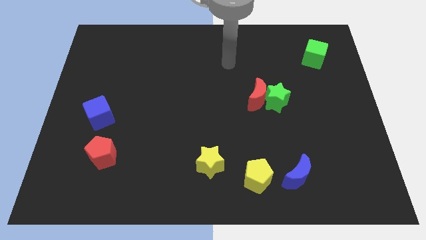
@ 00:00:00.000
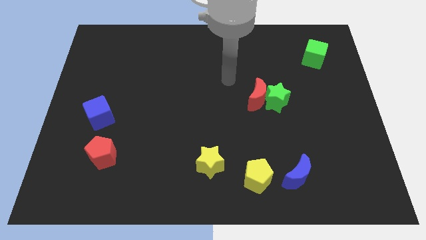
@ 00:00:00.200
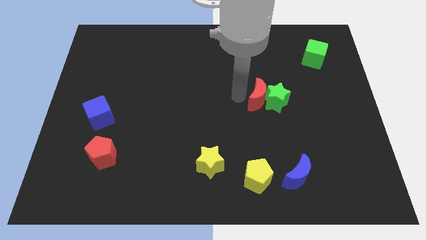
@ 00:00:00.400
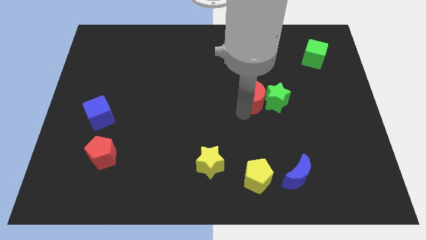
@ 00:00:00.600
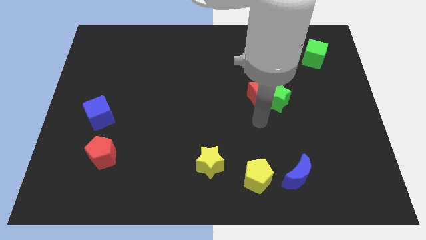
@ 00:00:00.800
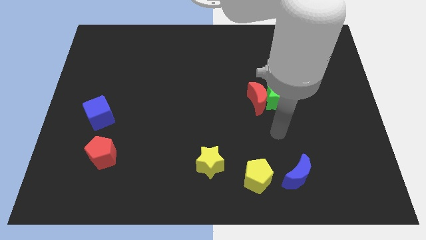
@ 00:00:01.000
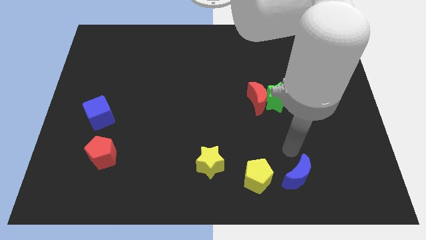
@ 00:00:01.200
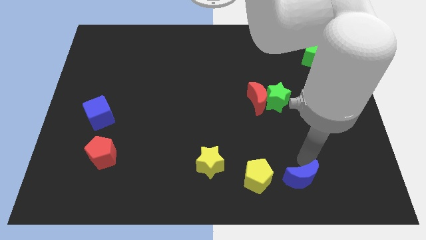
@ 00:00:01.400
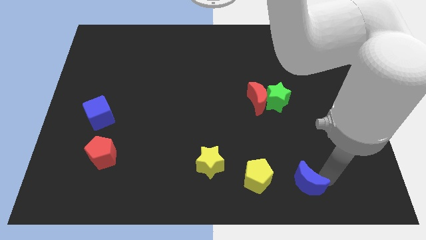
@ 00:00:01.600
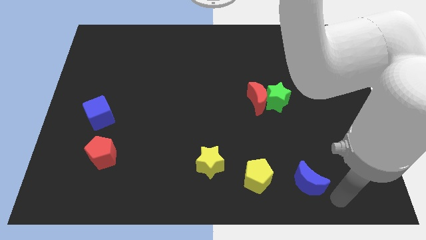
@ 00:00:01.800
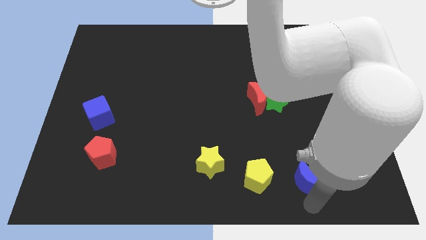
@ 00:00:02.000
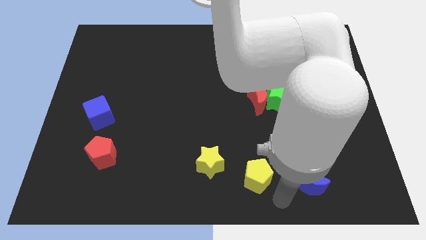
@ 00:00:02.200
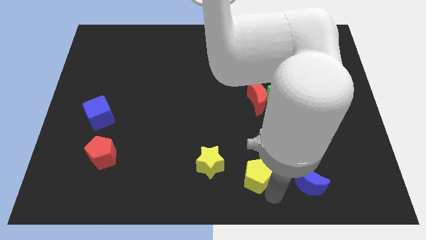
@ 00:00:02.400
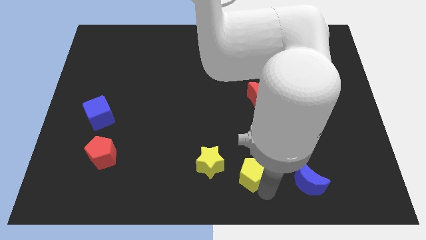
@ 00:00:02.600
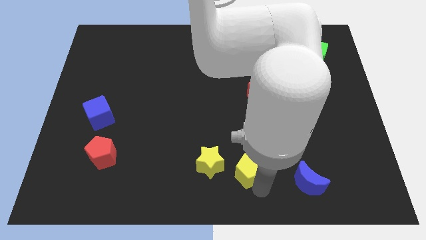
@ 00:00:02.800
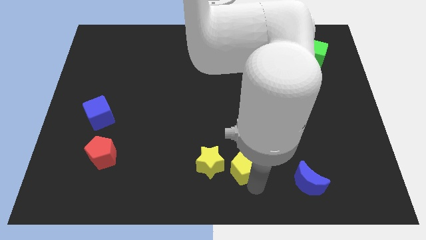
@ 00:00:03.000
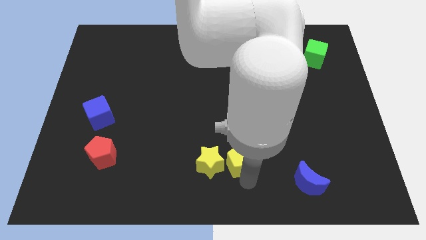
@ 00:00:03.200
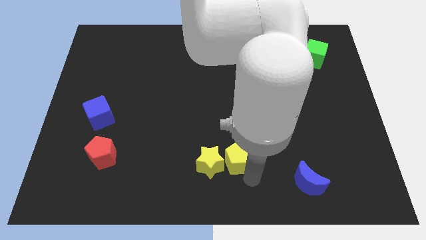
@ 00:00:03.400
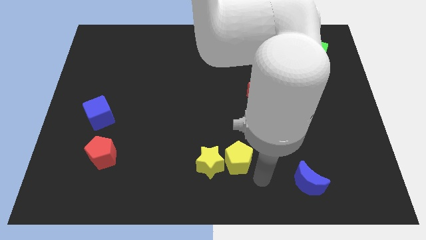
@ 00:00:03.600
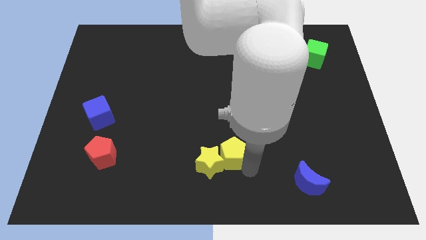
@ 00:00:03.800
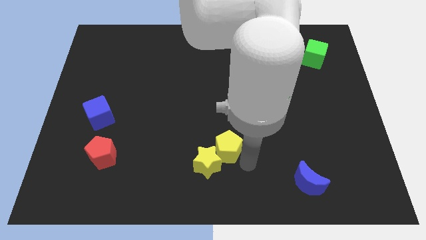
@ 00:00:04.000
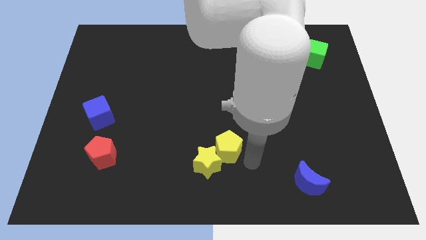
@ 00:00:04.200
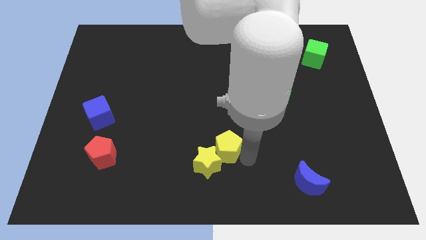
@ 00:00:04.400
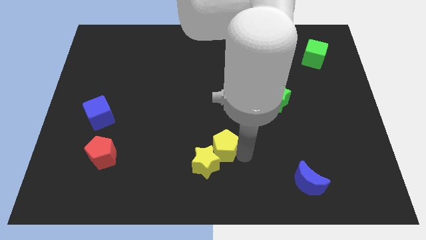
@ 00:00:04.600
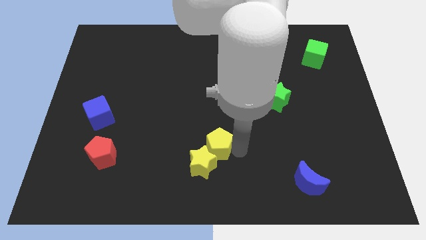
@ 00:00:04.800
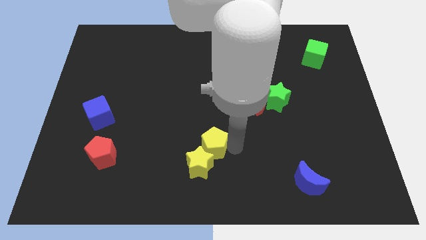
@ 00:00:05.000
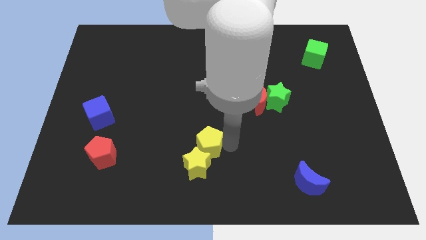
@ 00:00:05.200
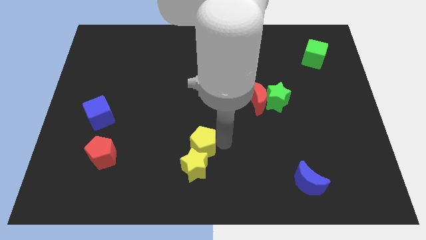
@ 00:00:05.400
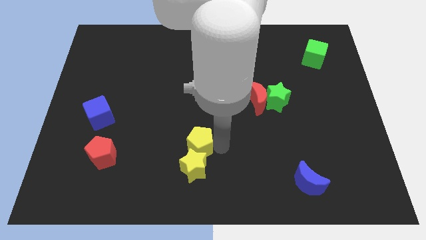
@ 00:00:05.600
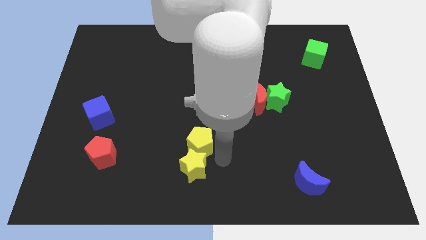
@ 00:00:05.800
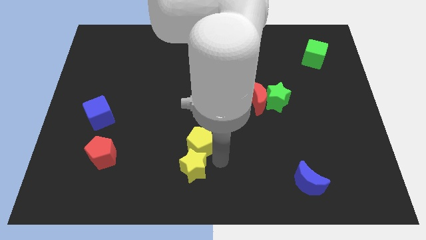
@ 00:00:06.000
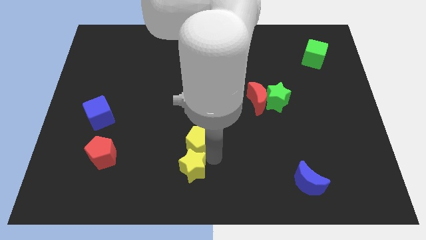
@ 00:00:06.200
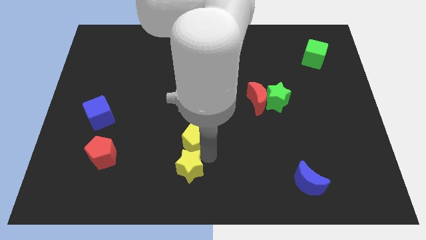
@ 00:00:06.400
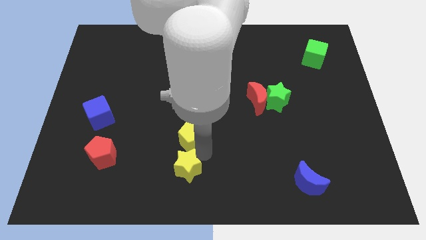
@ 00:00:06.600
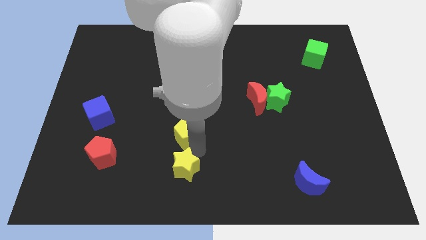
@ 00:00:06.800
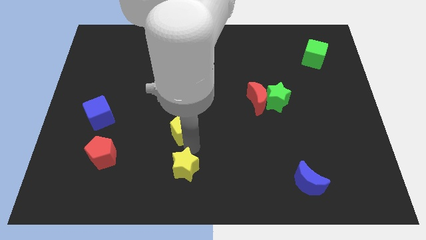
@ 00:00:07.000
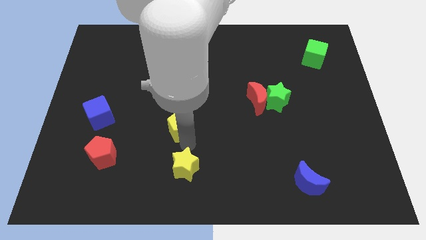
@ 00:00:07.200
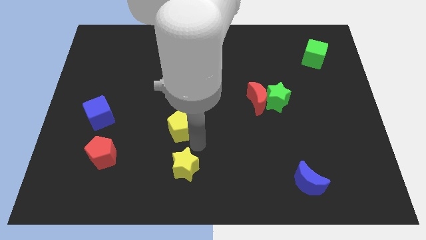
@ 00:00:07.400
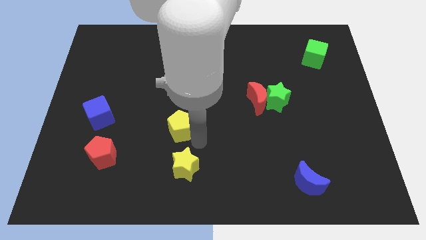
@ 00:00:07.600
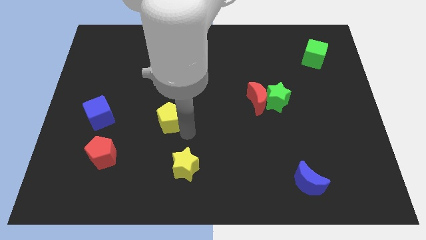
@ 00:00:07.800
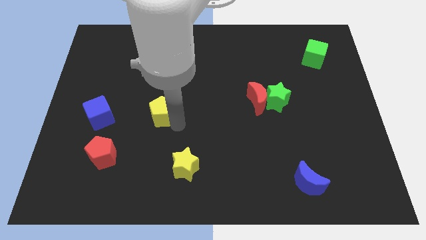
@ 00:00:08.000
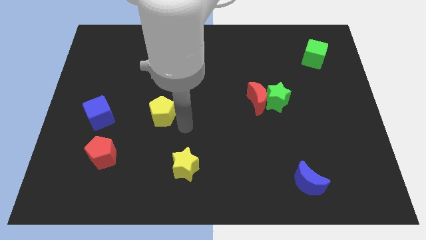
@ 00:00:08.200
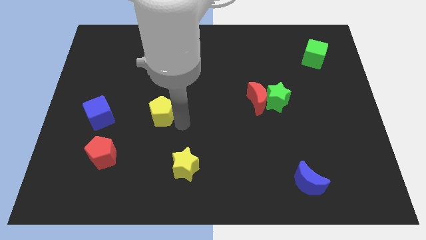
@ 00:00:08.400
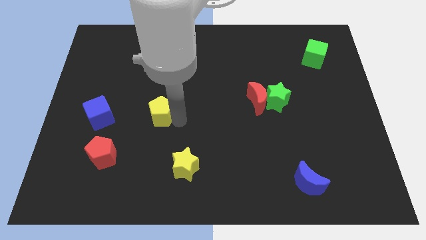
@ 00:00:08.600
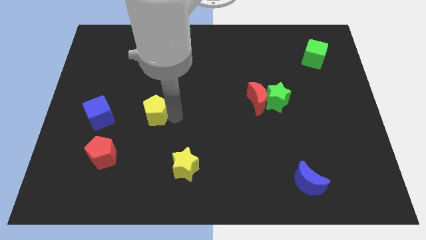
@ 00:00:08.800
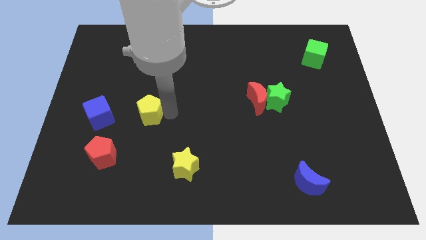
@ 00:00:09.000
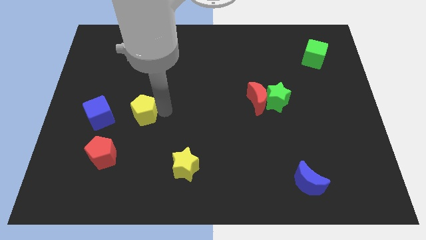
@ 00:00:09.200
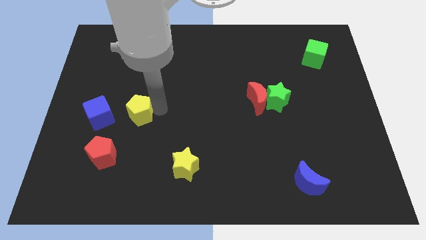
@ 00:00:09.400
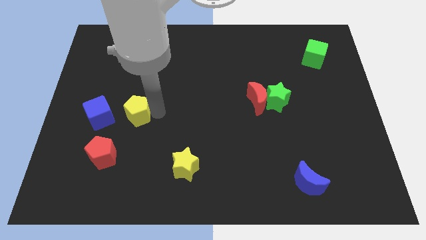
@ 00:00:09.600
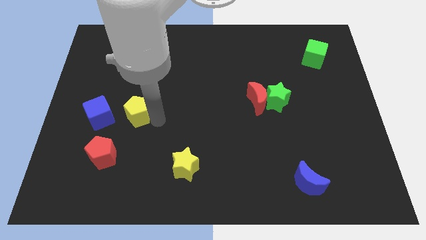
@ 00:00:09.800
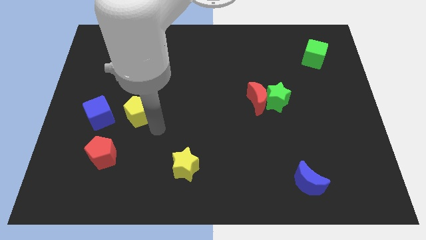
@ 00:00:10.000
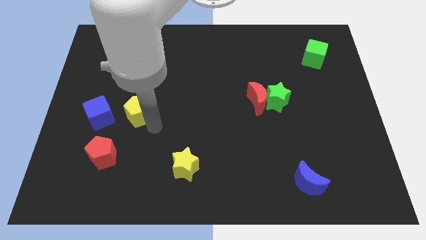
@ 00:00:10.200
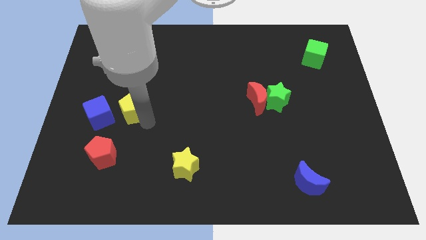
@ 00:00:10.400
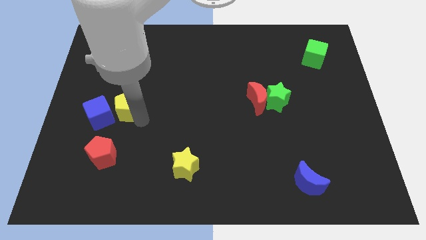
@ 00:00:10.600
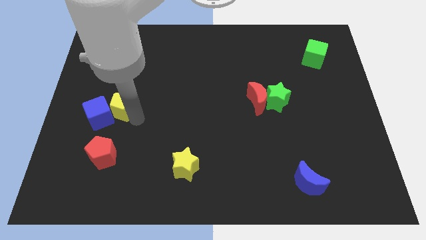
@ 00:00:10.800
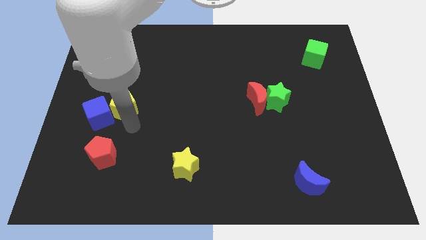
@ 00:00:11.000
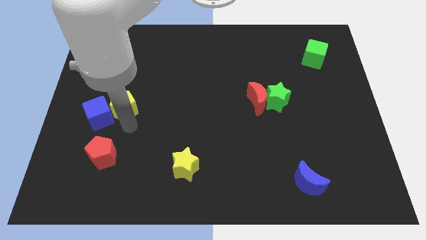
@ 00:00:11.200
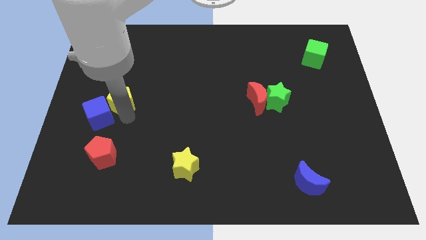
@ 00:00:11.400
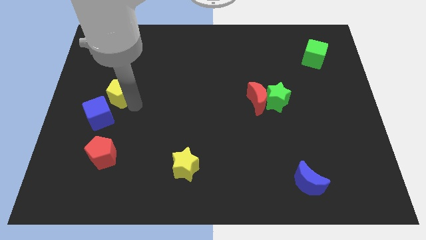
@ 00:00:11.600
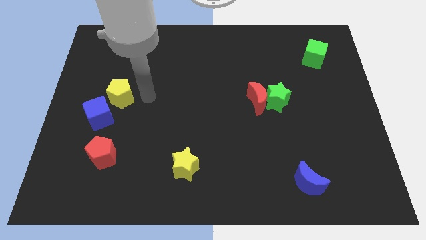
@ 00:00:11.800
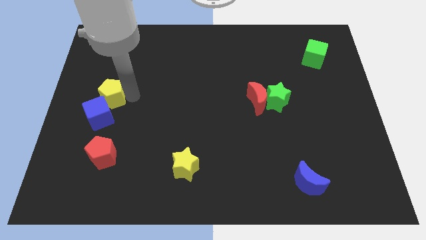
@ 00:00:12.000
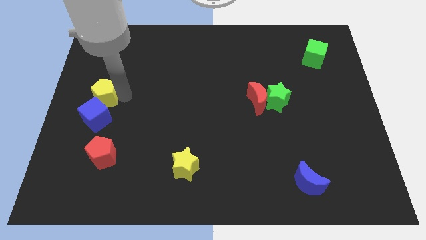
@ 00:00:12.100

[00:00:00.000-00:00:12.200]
put the yellow pentagon to the left side of the board

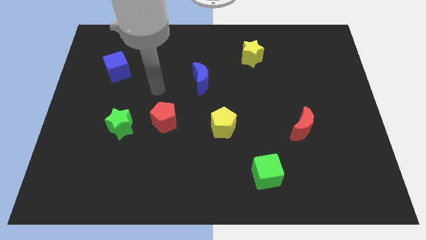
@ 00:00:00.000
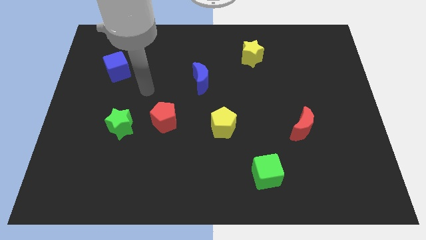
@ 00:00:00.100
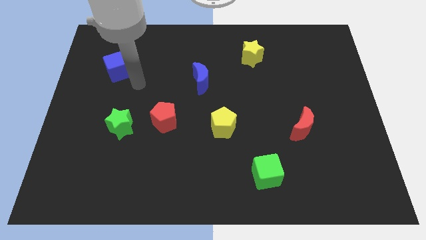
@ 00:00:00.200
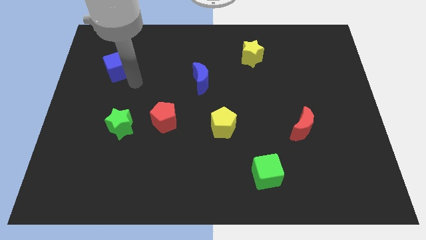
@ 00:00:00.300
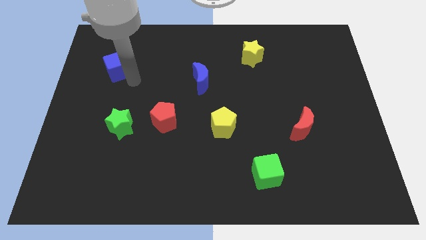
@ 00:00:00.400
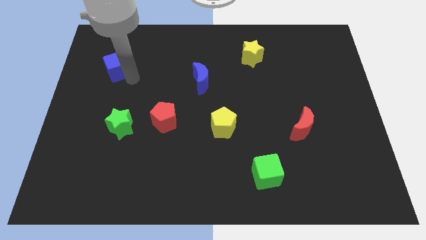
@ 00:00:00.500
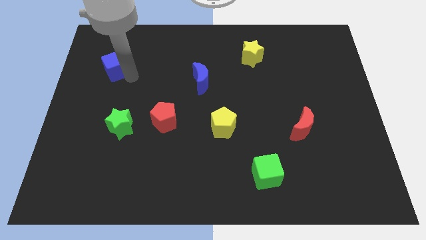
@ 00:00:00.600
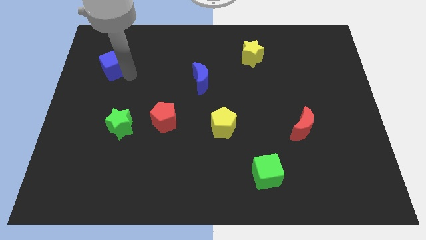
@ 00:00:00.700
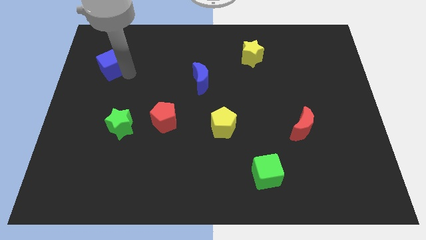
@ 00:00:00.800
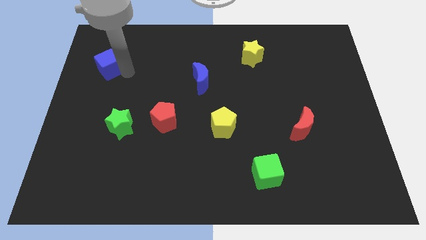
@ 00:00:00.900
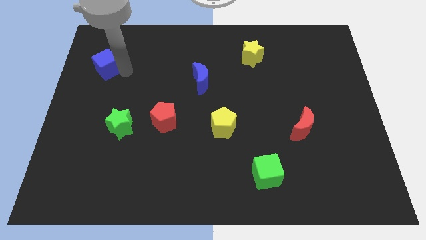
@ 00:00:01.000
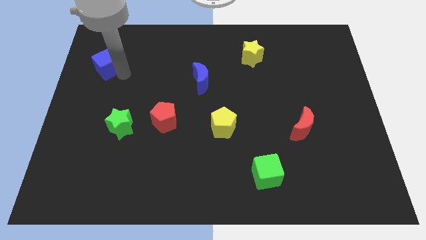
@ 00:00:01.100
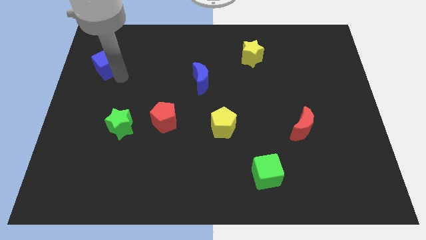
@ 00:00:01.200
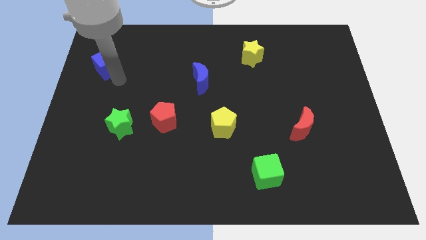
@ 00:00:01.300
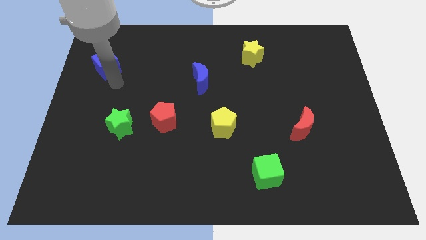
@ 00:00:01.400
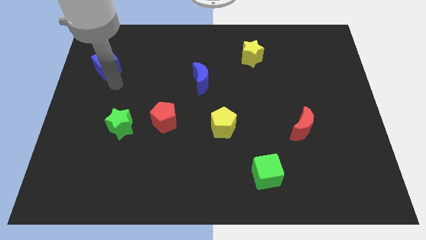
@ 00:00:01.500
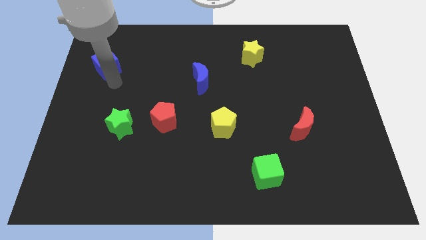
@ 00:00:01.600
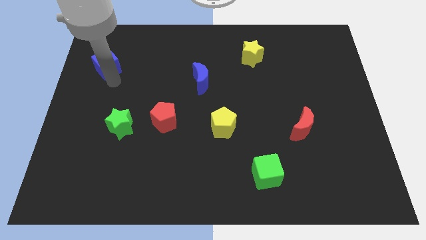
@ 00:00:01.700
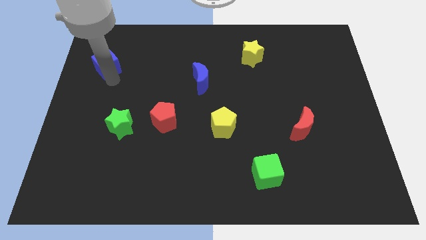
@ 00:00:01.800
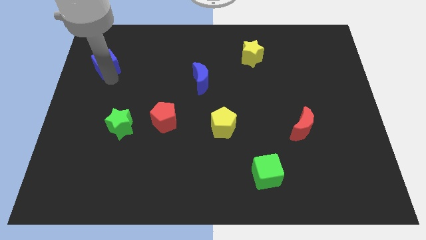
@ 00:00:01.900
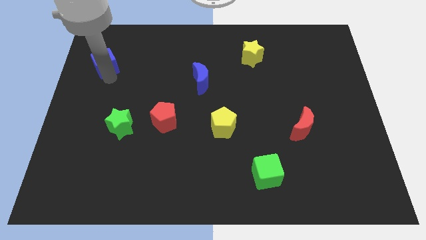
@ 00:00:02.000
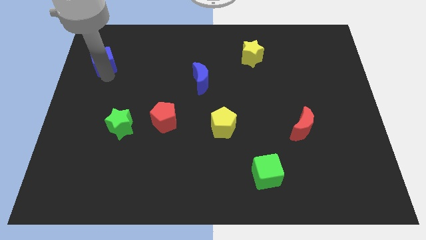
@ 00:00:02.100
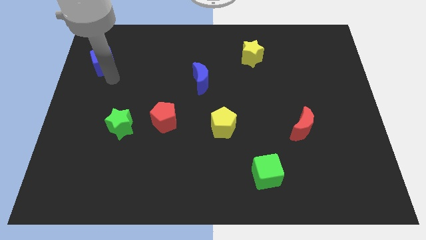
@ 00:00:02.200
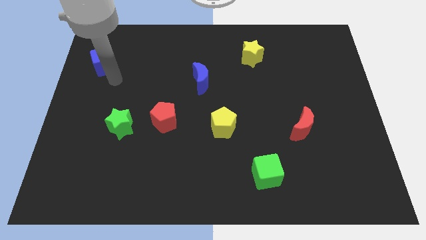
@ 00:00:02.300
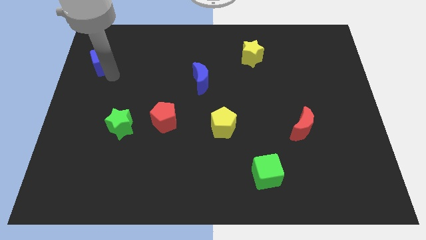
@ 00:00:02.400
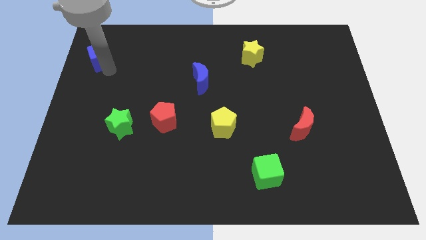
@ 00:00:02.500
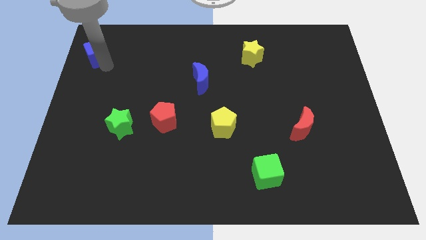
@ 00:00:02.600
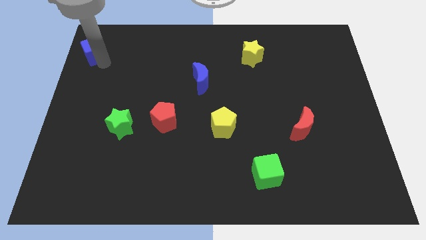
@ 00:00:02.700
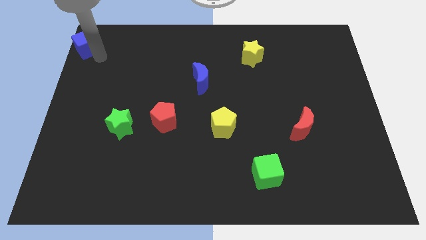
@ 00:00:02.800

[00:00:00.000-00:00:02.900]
move the blue cube to the top left corner
